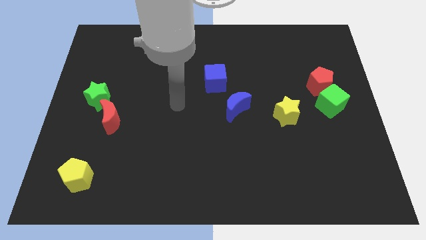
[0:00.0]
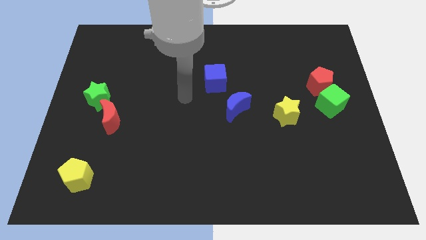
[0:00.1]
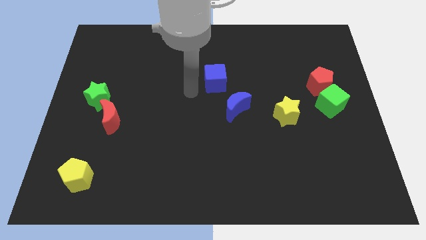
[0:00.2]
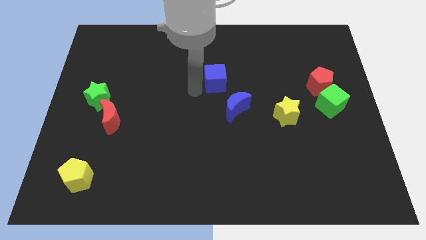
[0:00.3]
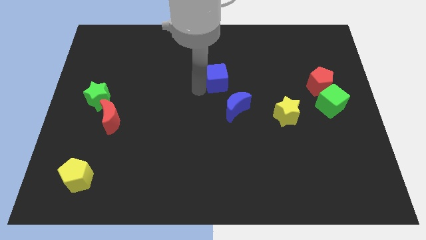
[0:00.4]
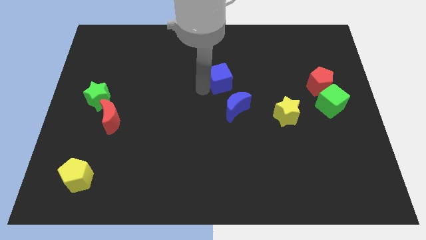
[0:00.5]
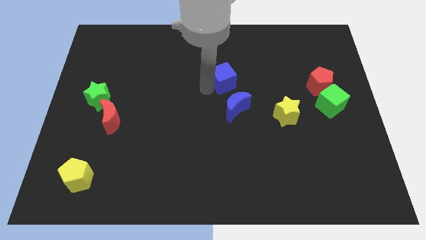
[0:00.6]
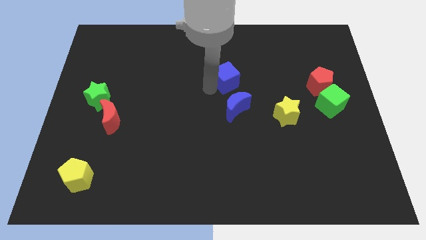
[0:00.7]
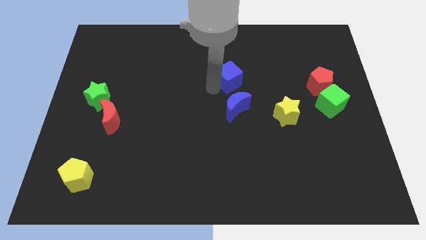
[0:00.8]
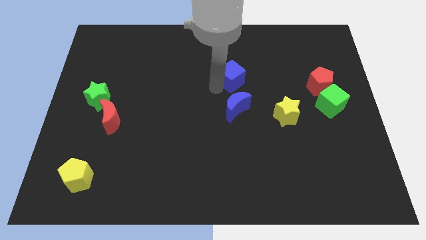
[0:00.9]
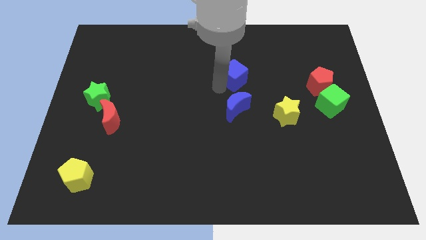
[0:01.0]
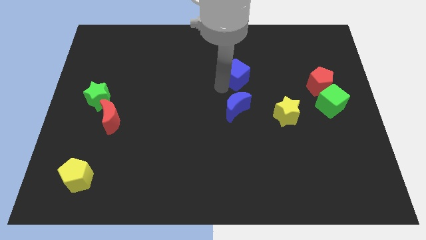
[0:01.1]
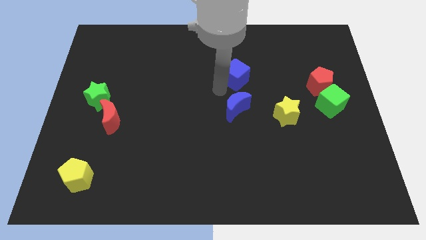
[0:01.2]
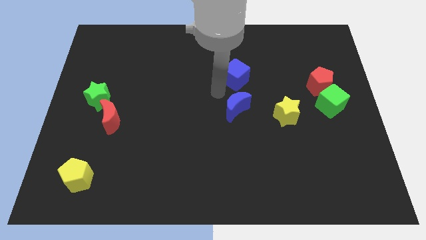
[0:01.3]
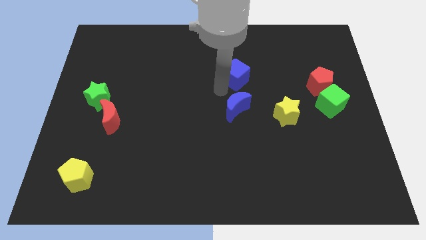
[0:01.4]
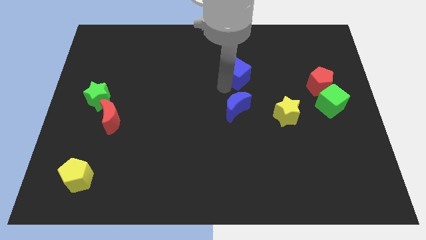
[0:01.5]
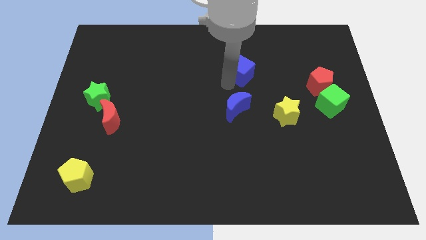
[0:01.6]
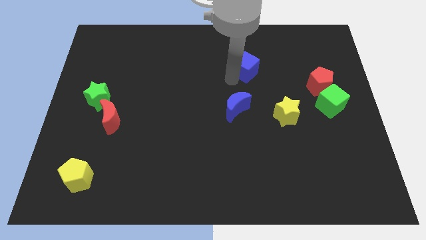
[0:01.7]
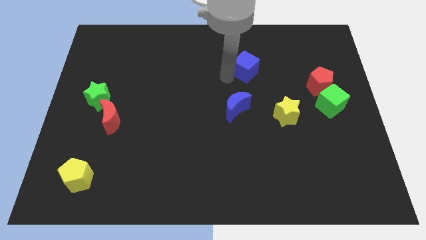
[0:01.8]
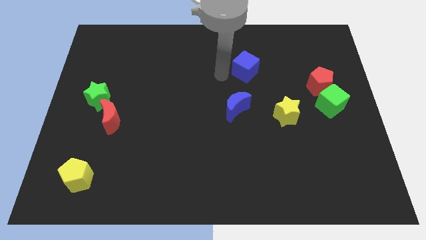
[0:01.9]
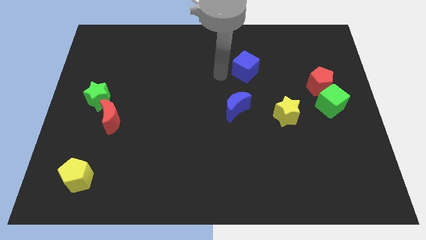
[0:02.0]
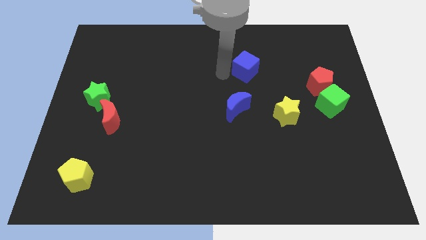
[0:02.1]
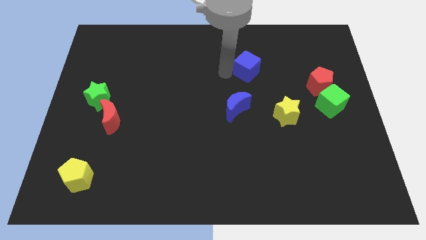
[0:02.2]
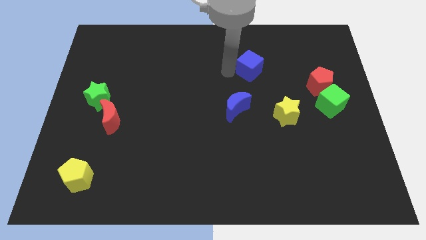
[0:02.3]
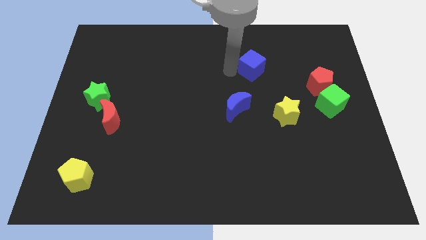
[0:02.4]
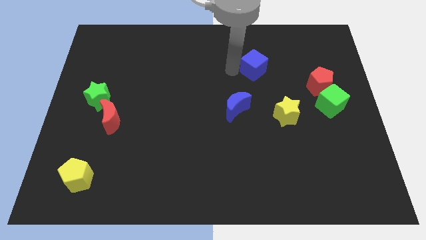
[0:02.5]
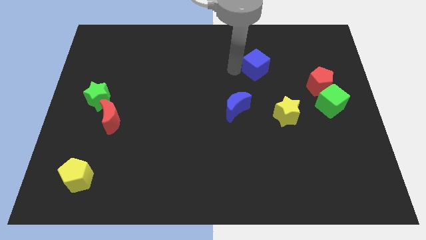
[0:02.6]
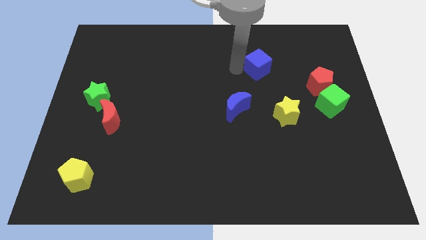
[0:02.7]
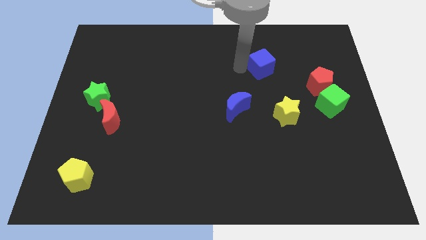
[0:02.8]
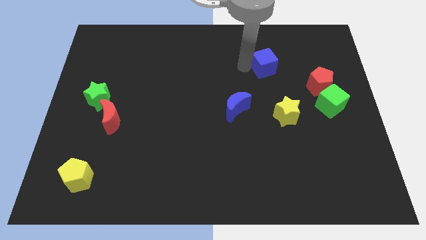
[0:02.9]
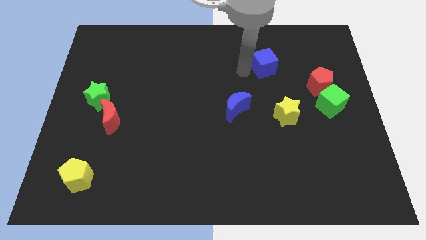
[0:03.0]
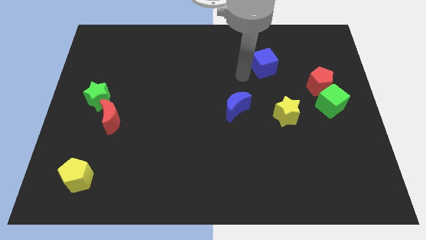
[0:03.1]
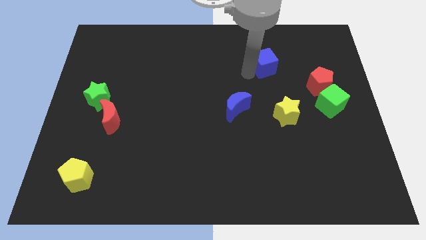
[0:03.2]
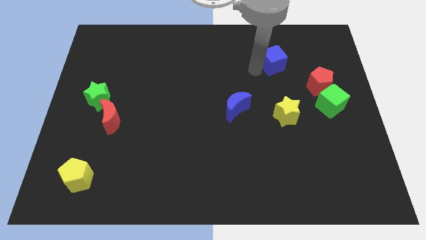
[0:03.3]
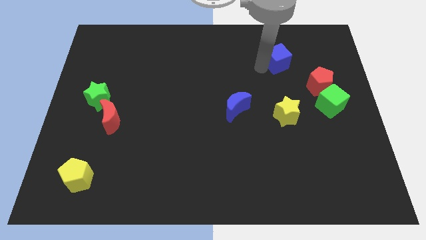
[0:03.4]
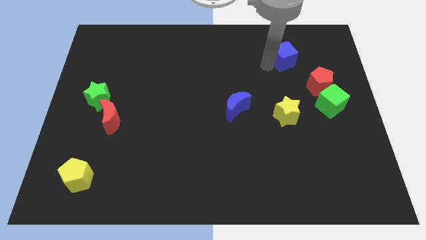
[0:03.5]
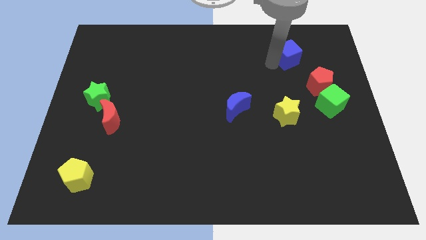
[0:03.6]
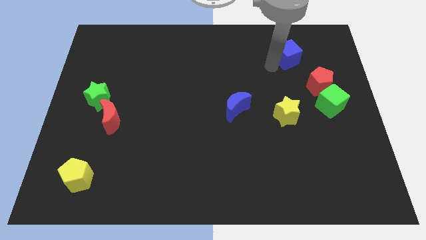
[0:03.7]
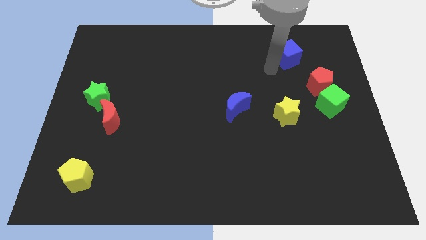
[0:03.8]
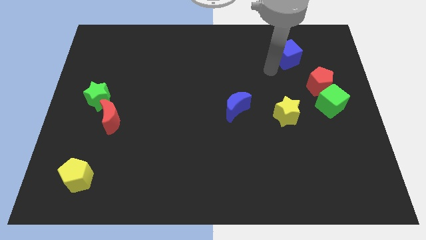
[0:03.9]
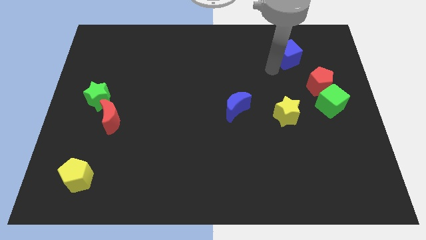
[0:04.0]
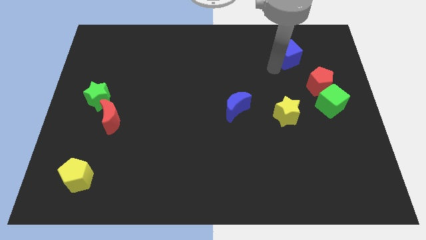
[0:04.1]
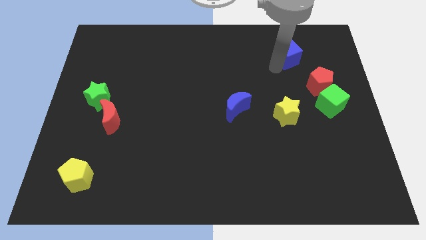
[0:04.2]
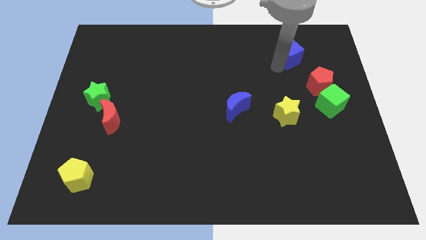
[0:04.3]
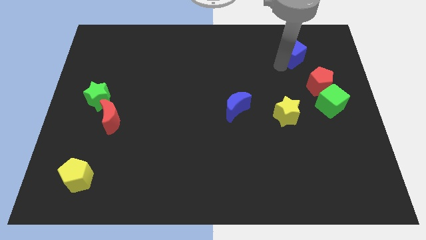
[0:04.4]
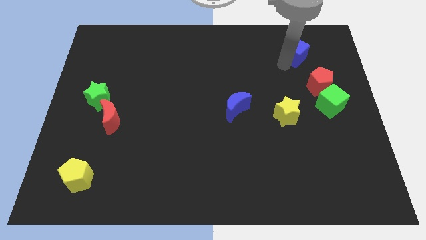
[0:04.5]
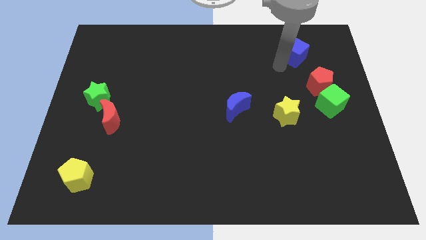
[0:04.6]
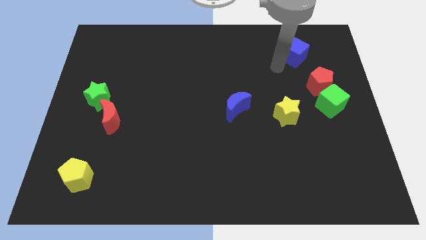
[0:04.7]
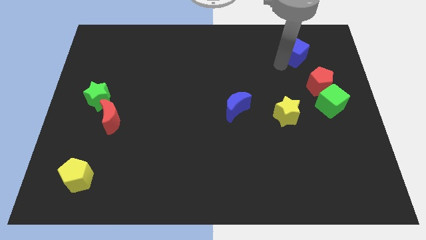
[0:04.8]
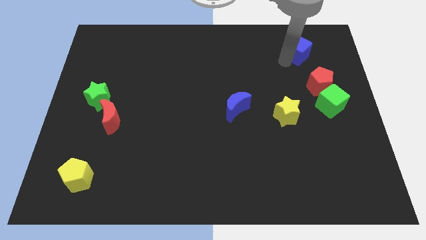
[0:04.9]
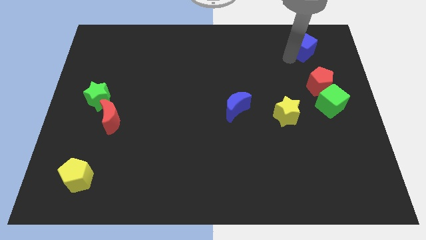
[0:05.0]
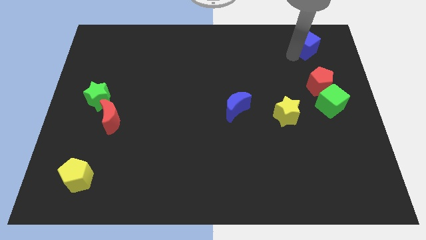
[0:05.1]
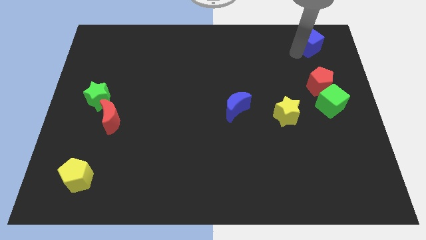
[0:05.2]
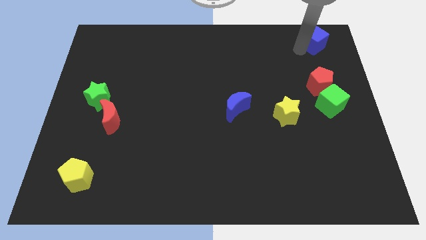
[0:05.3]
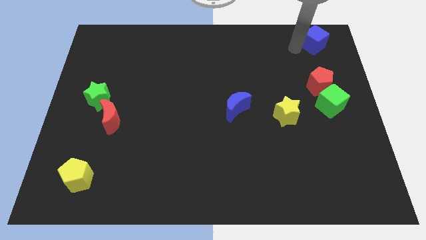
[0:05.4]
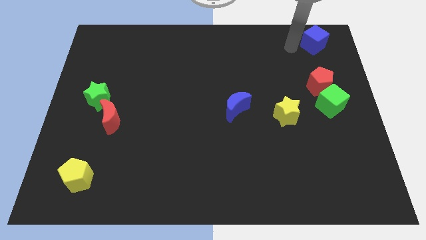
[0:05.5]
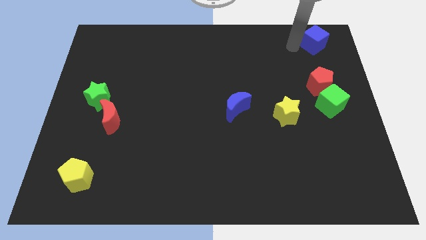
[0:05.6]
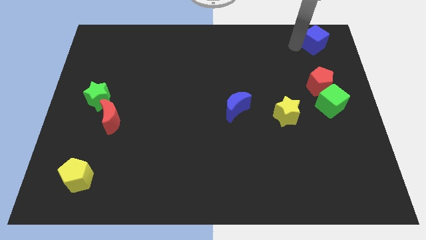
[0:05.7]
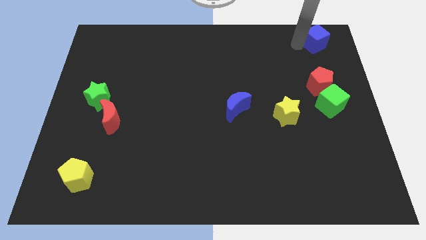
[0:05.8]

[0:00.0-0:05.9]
slide the blue cube to the top right

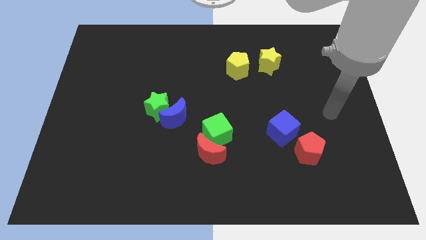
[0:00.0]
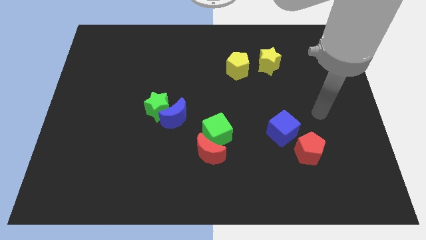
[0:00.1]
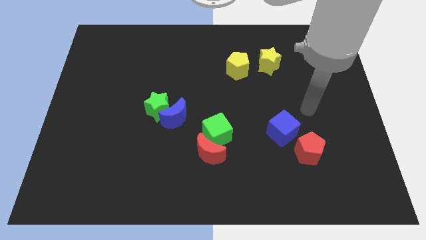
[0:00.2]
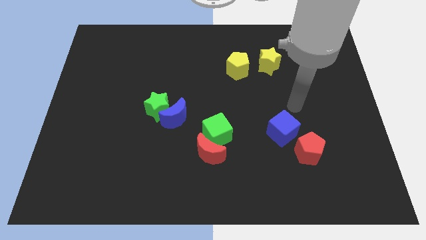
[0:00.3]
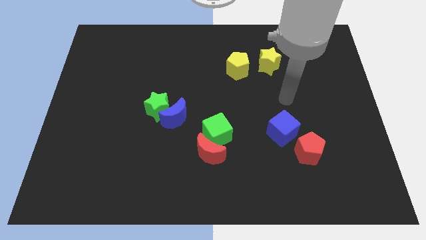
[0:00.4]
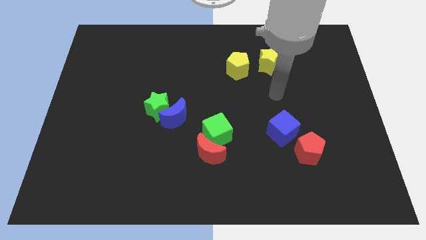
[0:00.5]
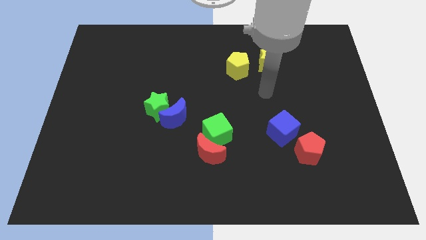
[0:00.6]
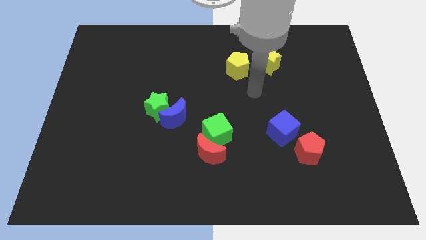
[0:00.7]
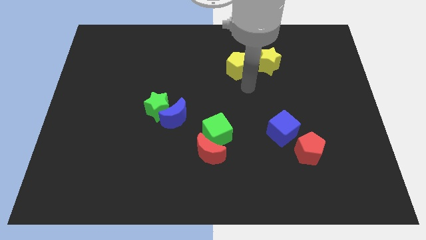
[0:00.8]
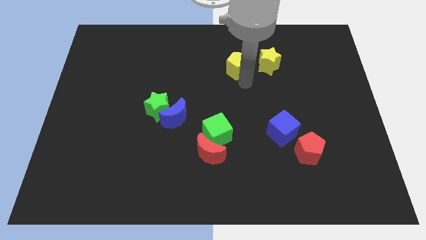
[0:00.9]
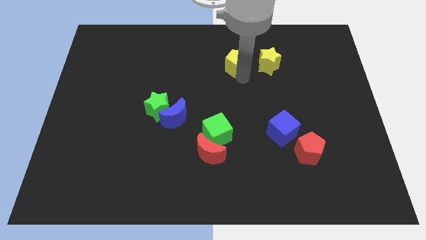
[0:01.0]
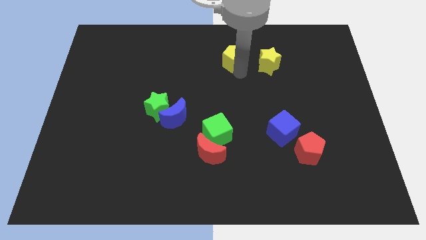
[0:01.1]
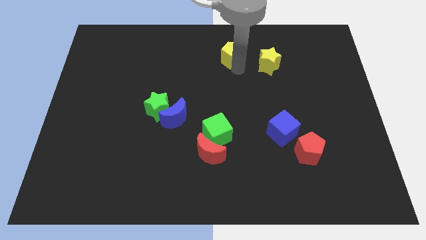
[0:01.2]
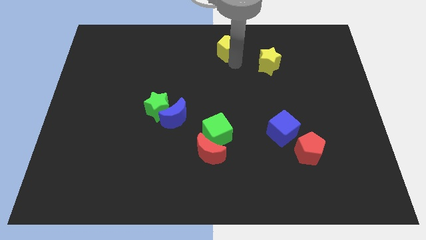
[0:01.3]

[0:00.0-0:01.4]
move the yellow pentagon to the top side

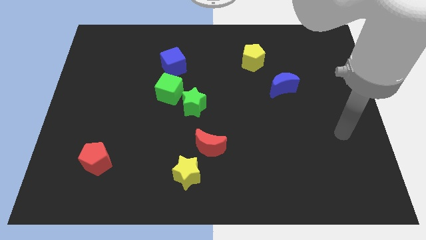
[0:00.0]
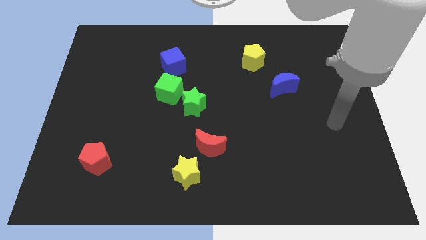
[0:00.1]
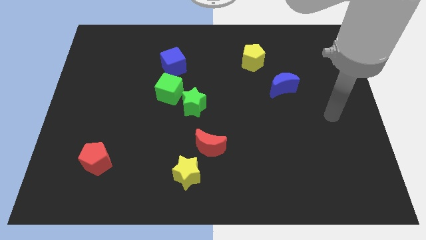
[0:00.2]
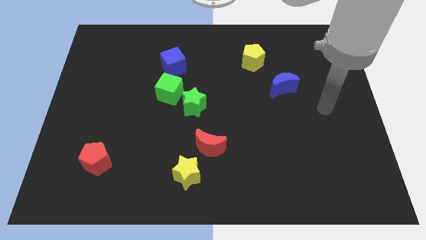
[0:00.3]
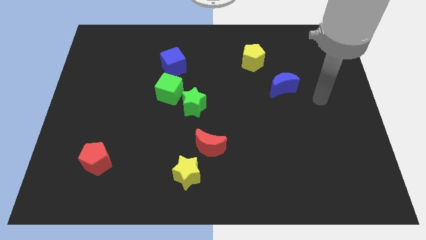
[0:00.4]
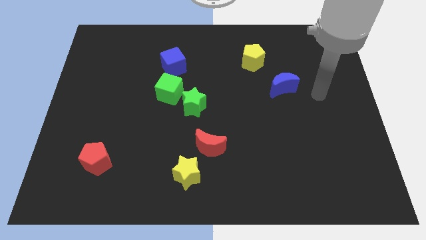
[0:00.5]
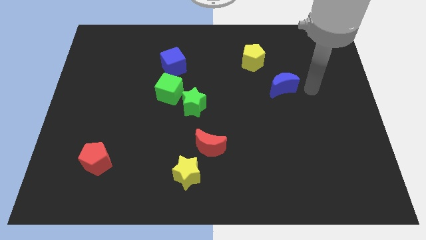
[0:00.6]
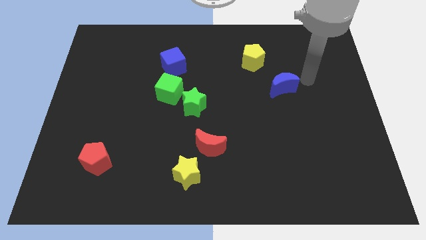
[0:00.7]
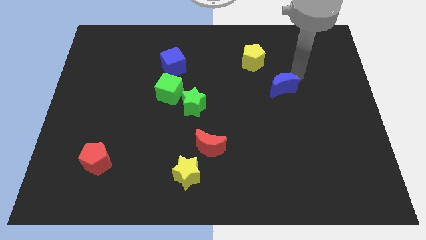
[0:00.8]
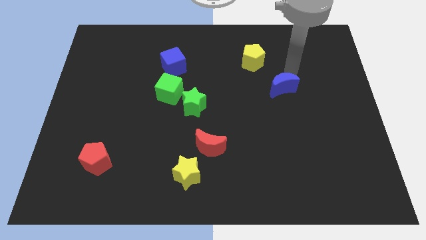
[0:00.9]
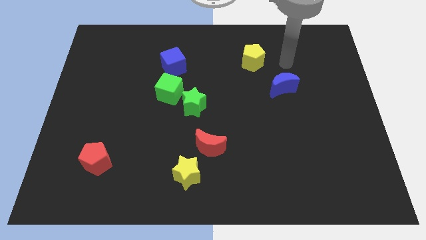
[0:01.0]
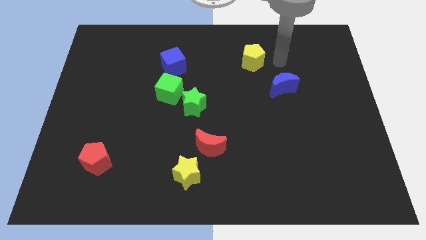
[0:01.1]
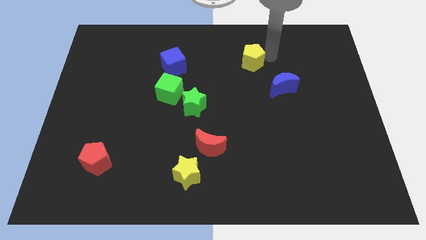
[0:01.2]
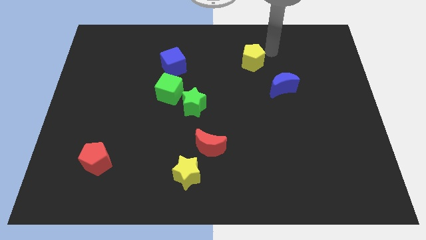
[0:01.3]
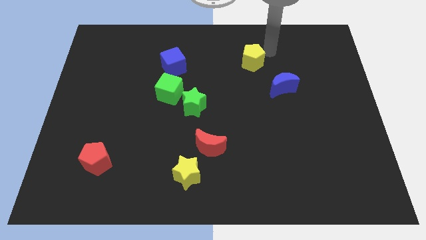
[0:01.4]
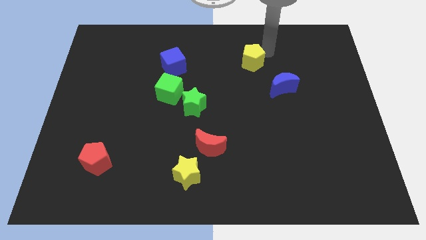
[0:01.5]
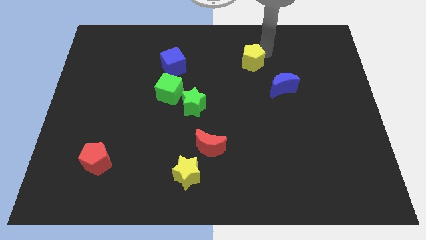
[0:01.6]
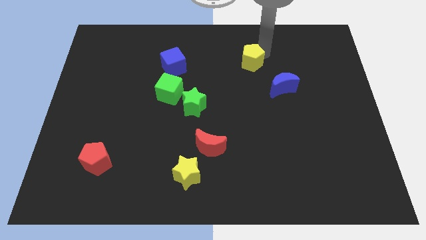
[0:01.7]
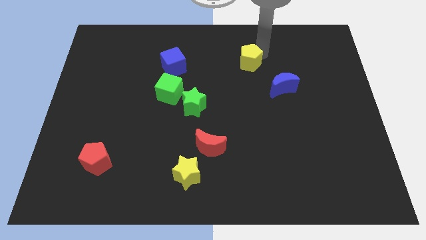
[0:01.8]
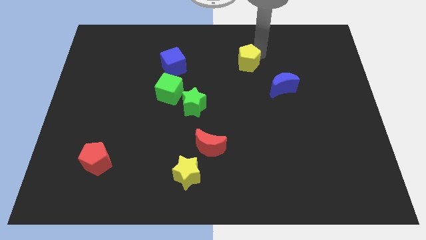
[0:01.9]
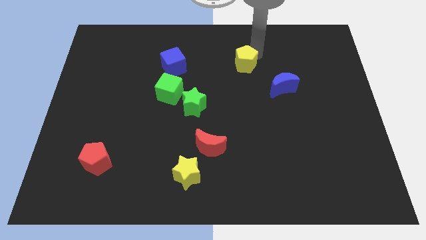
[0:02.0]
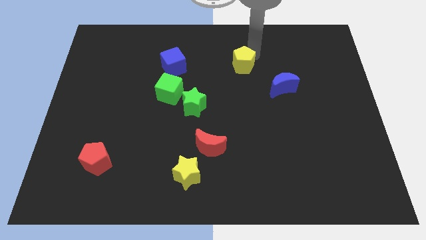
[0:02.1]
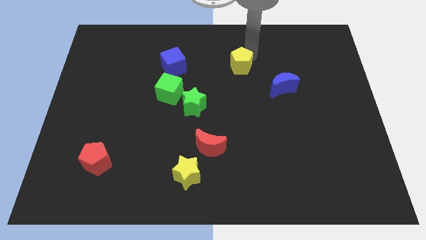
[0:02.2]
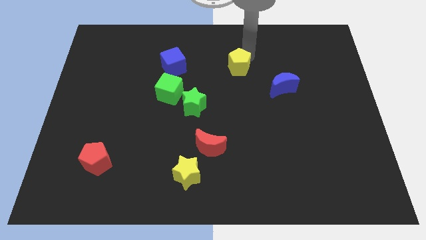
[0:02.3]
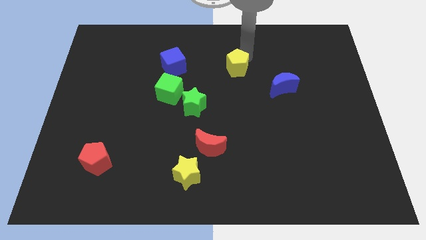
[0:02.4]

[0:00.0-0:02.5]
put the yellow pentagon to the center
